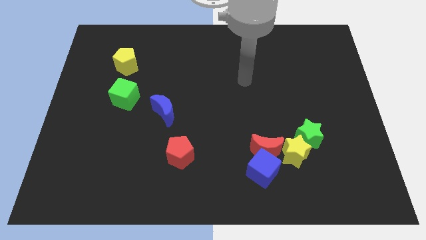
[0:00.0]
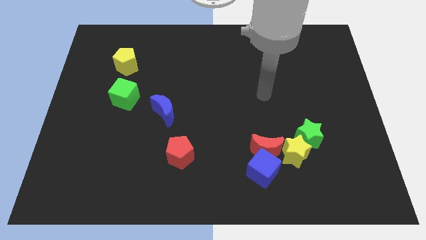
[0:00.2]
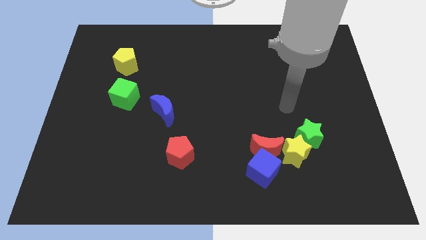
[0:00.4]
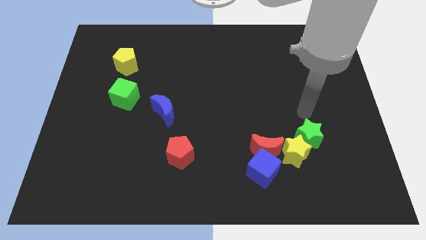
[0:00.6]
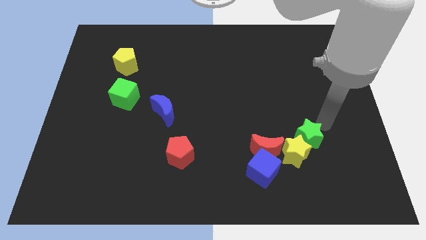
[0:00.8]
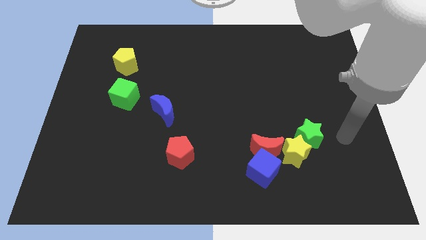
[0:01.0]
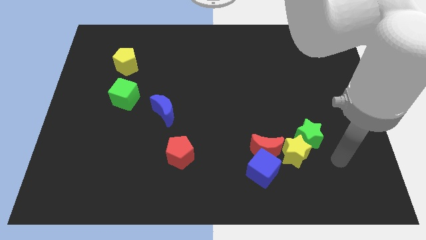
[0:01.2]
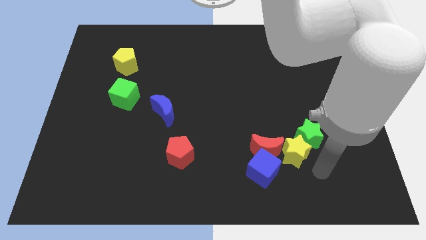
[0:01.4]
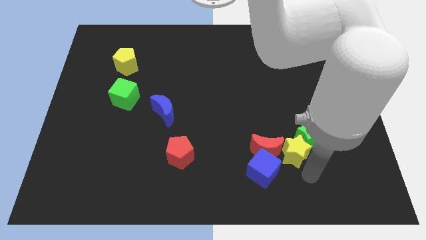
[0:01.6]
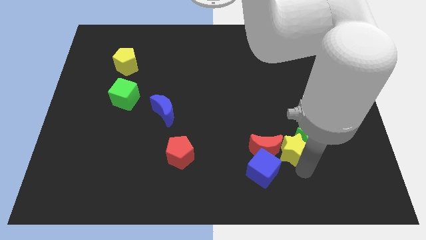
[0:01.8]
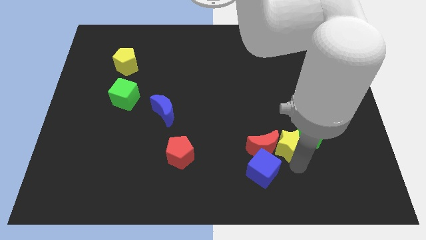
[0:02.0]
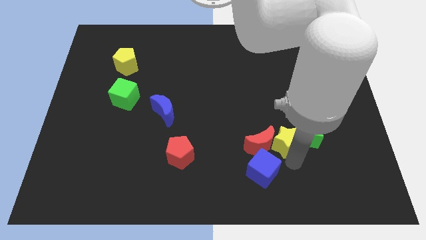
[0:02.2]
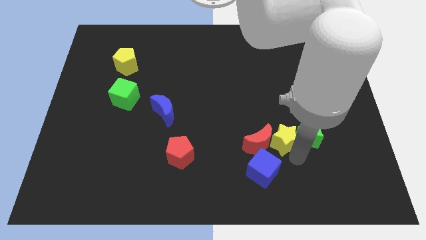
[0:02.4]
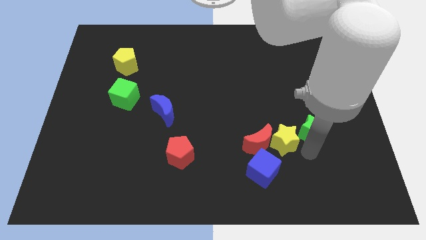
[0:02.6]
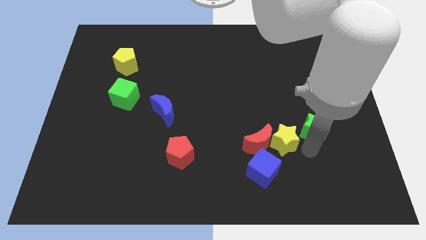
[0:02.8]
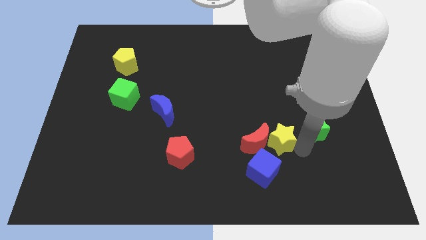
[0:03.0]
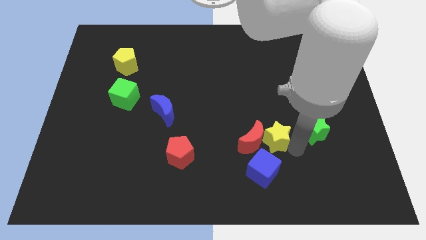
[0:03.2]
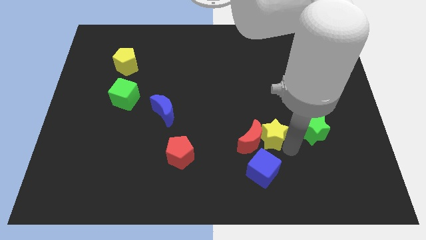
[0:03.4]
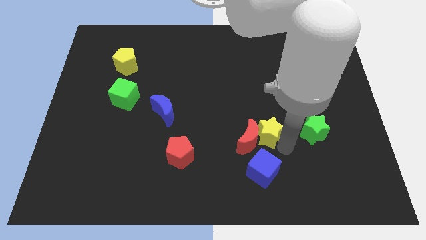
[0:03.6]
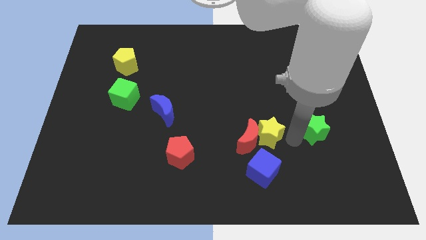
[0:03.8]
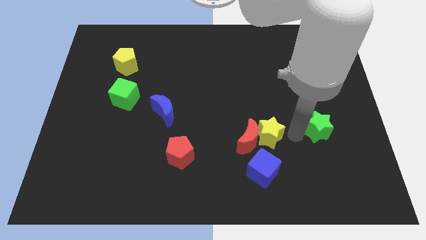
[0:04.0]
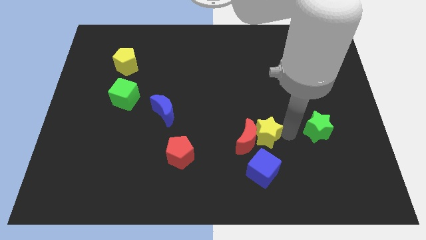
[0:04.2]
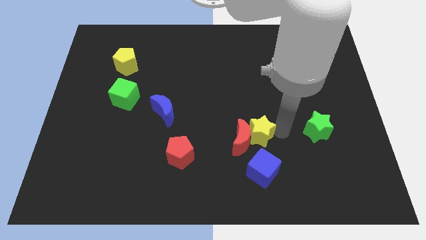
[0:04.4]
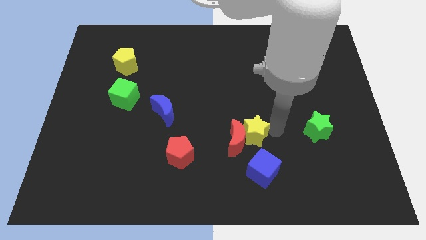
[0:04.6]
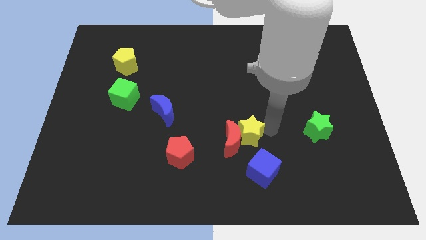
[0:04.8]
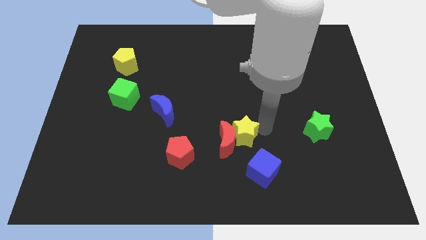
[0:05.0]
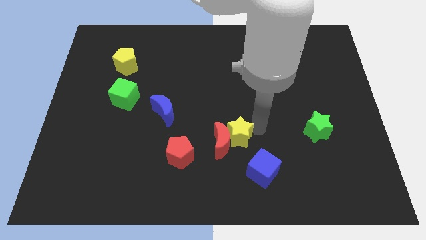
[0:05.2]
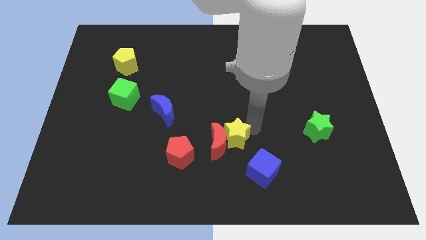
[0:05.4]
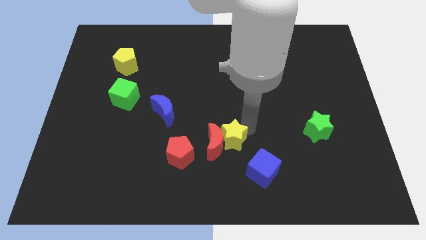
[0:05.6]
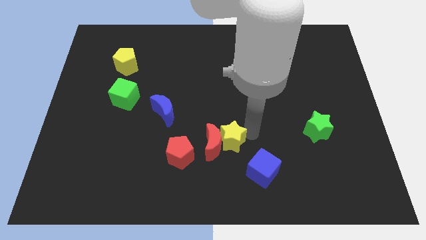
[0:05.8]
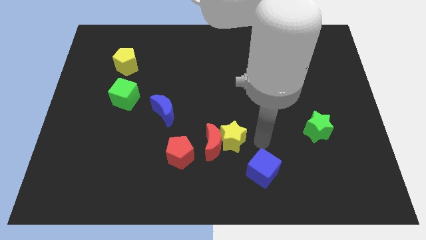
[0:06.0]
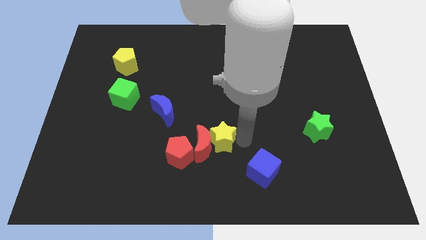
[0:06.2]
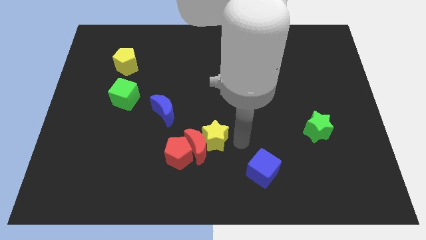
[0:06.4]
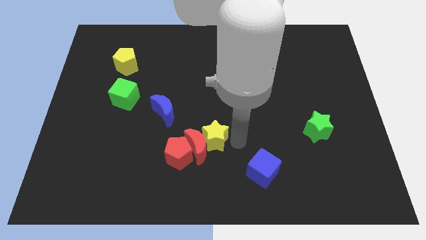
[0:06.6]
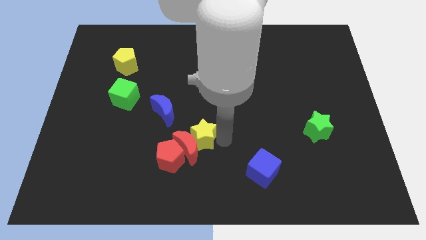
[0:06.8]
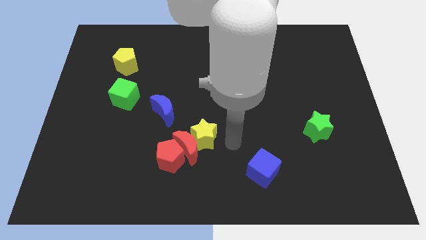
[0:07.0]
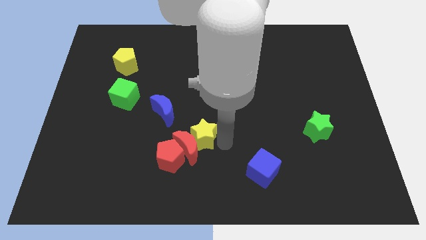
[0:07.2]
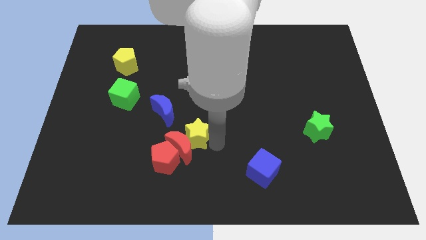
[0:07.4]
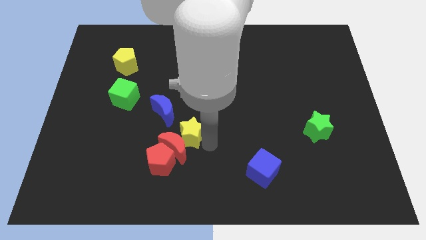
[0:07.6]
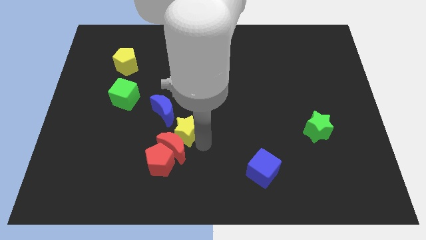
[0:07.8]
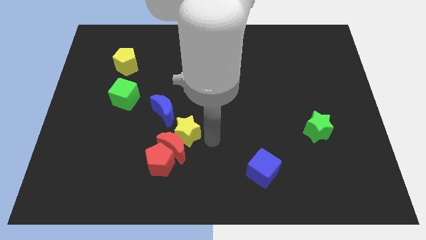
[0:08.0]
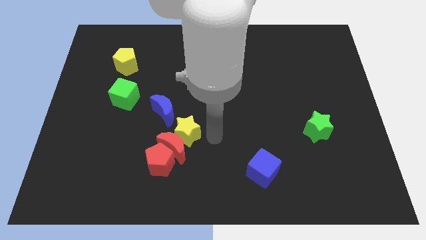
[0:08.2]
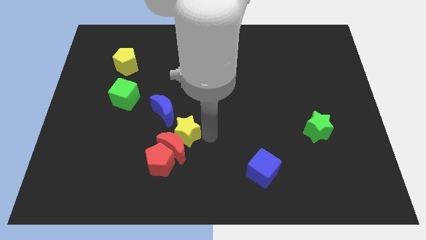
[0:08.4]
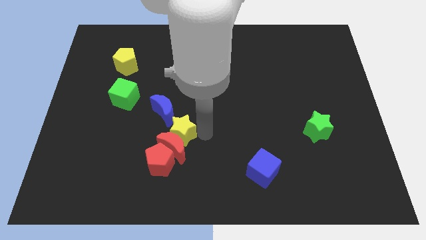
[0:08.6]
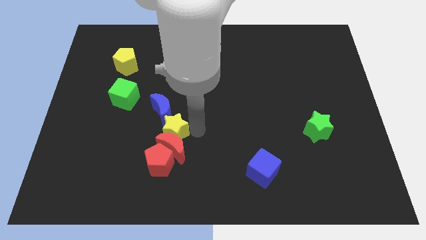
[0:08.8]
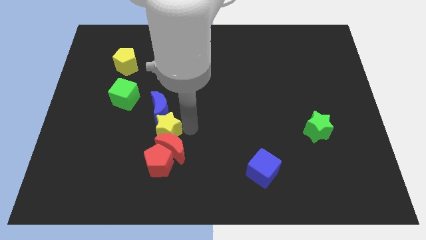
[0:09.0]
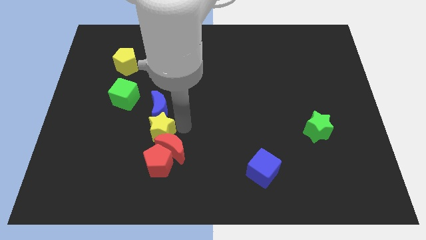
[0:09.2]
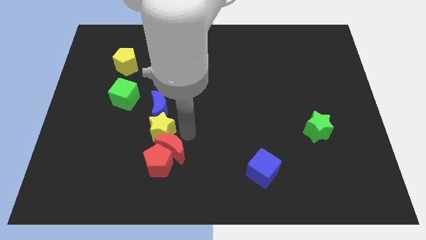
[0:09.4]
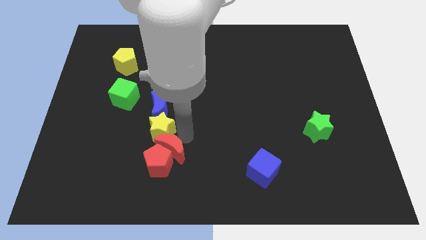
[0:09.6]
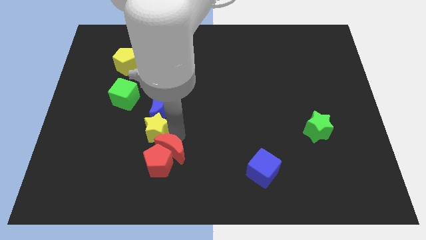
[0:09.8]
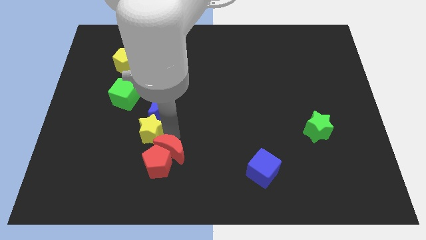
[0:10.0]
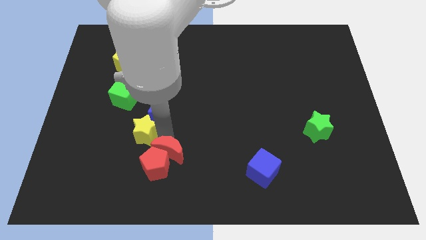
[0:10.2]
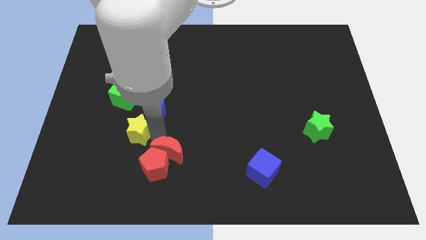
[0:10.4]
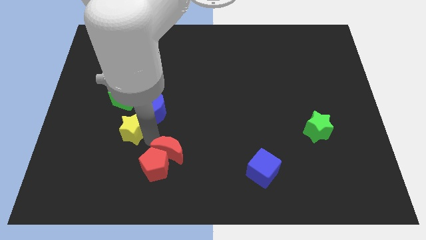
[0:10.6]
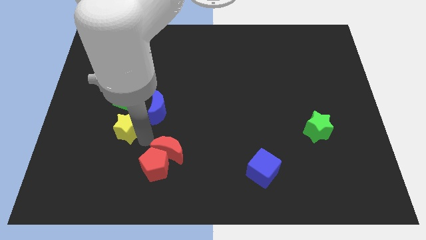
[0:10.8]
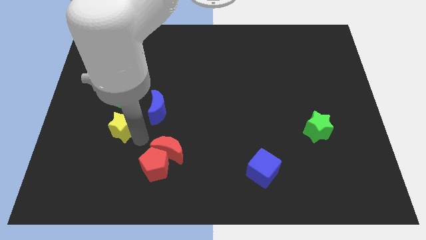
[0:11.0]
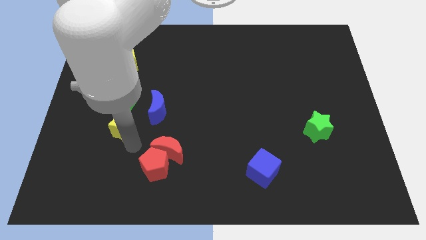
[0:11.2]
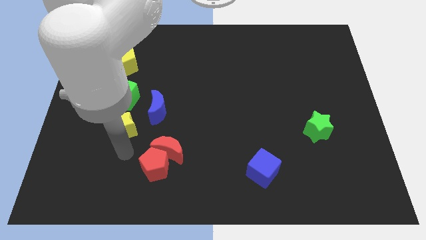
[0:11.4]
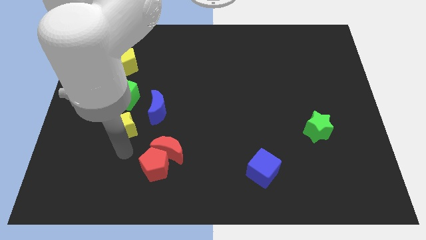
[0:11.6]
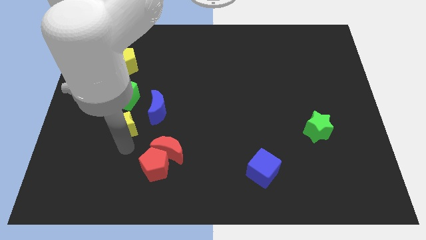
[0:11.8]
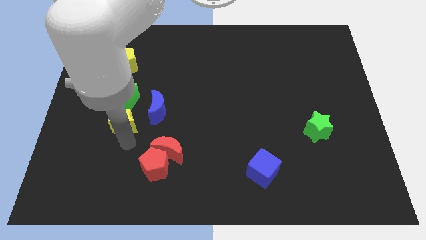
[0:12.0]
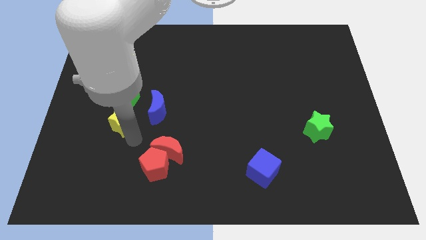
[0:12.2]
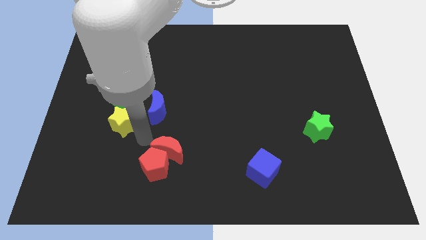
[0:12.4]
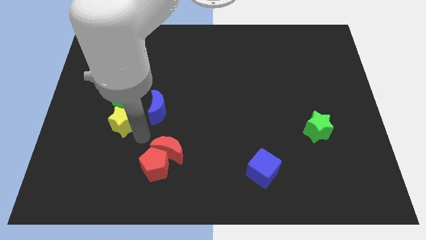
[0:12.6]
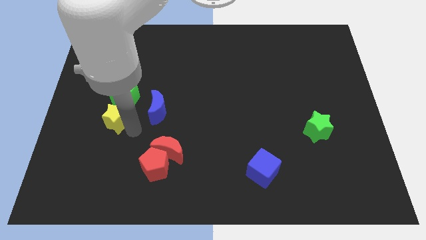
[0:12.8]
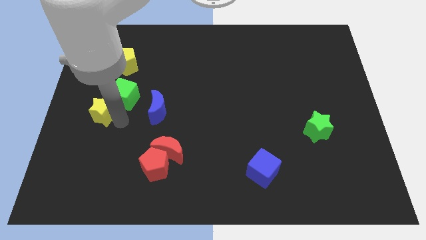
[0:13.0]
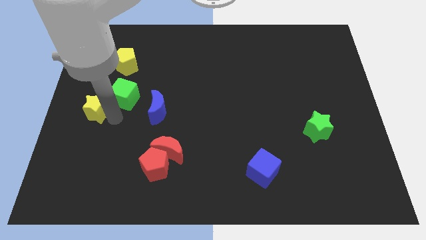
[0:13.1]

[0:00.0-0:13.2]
slide the yellow star to the left side of the board
